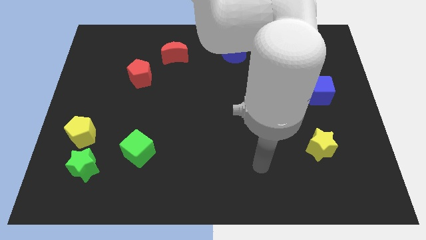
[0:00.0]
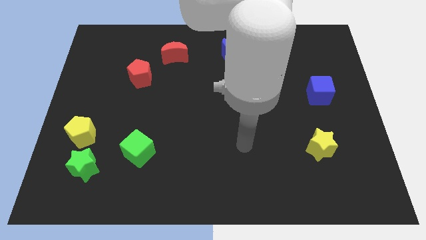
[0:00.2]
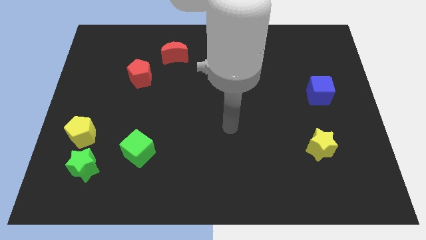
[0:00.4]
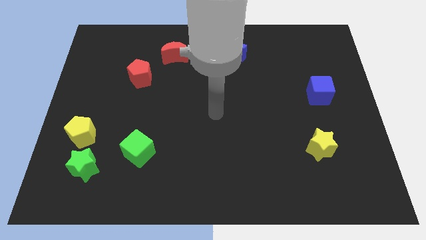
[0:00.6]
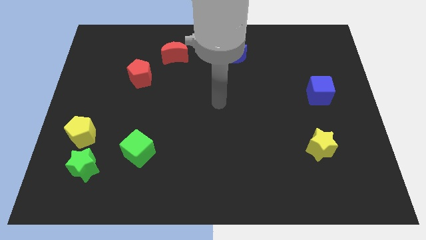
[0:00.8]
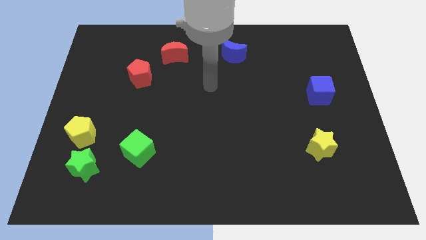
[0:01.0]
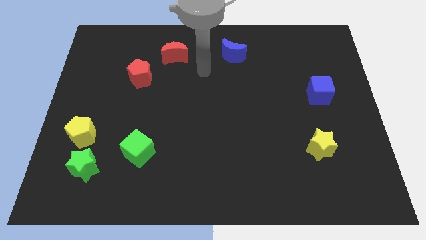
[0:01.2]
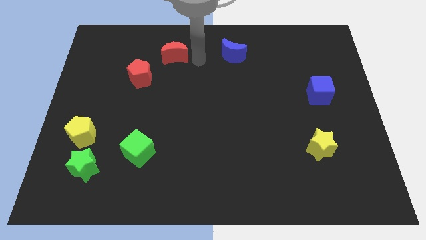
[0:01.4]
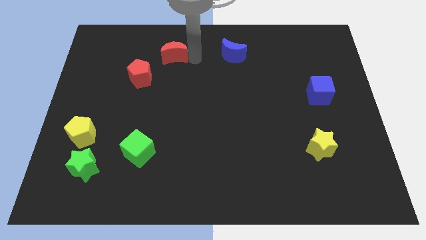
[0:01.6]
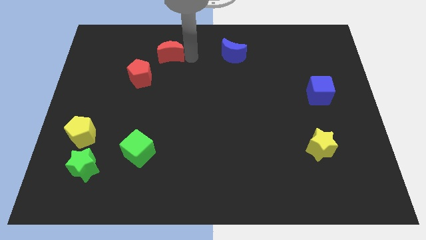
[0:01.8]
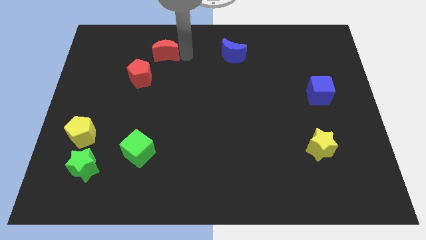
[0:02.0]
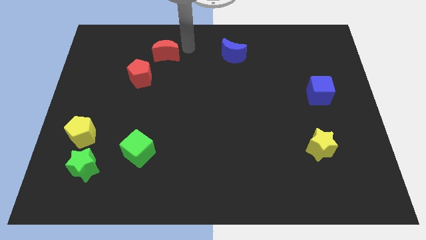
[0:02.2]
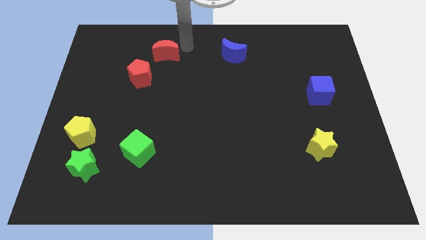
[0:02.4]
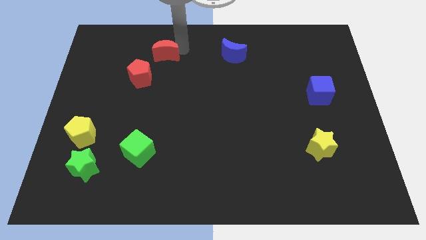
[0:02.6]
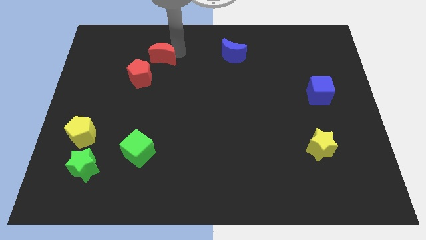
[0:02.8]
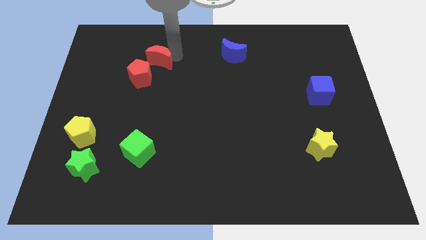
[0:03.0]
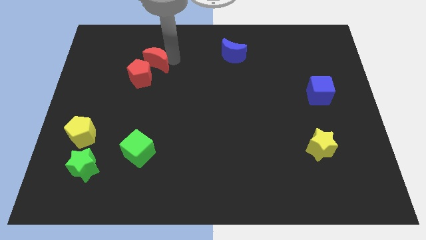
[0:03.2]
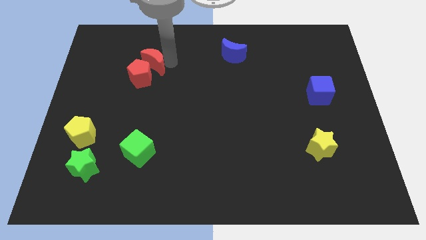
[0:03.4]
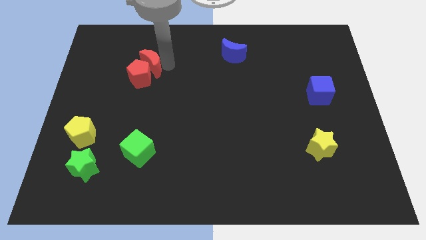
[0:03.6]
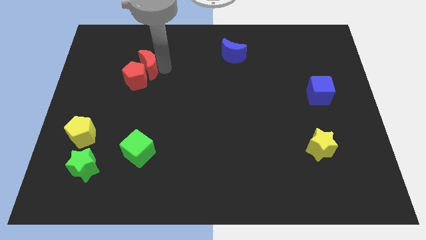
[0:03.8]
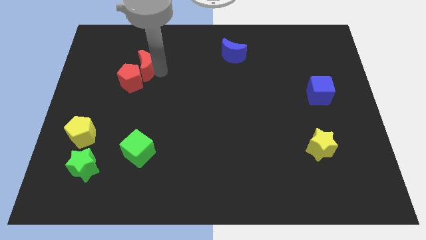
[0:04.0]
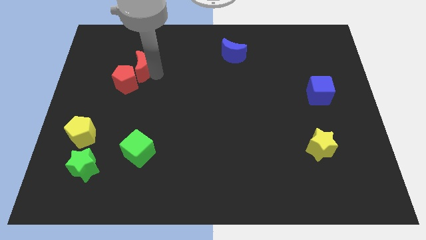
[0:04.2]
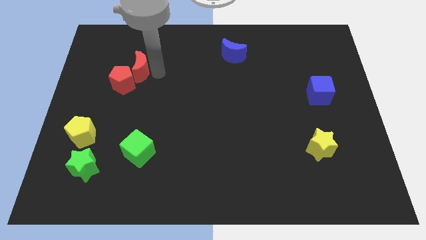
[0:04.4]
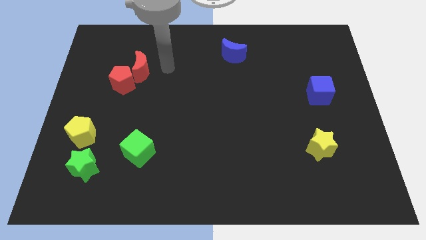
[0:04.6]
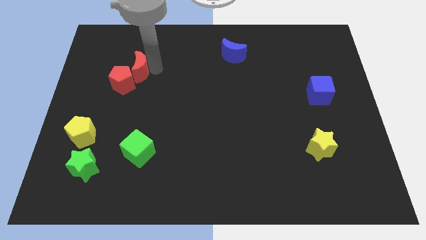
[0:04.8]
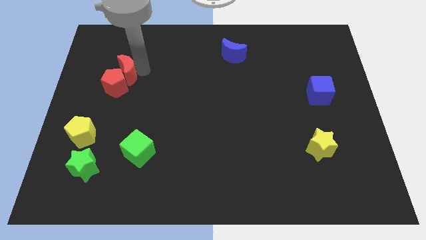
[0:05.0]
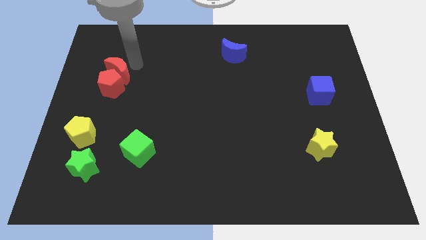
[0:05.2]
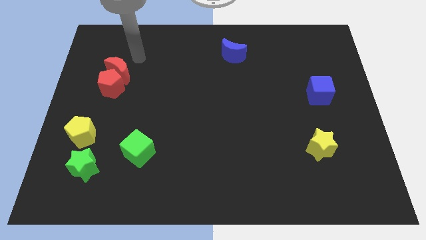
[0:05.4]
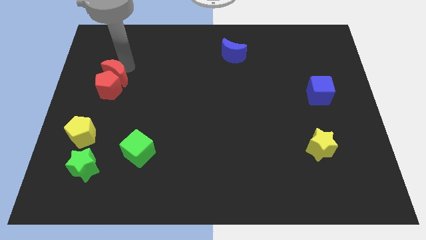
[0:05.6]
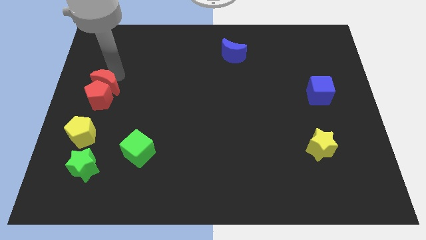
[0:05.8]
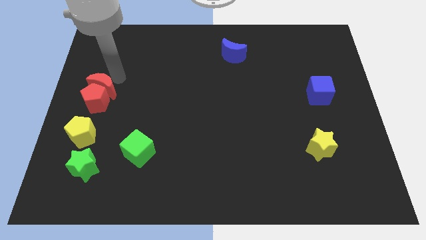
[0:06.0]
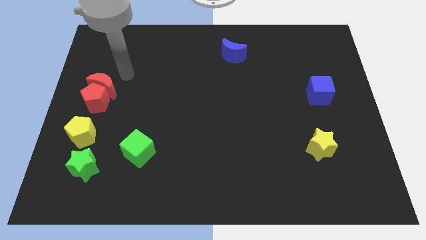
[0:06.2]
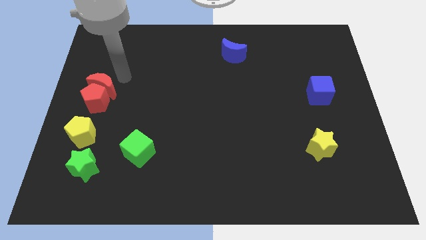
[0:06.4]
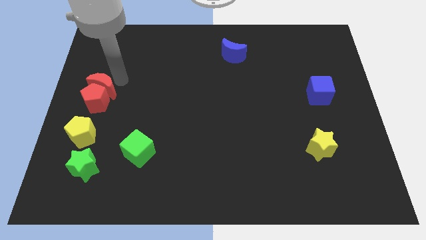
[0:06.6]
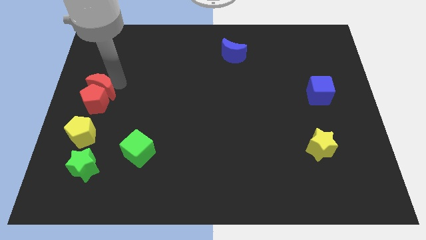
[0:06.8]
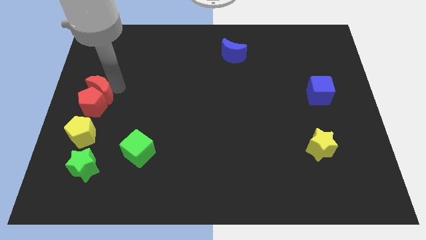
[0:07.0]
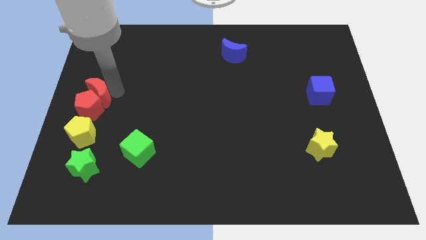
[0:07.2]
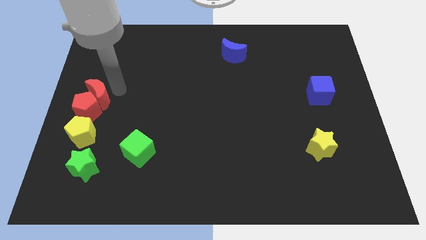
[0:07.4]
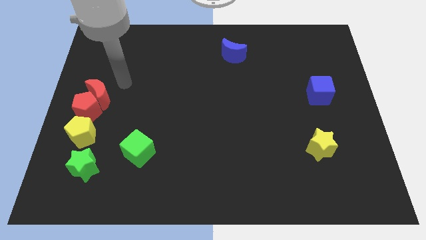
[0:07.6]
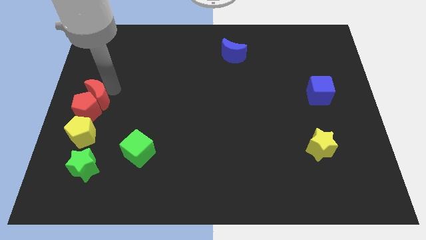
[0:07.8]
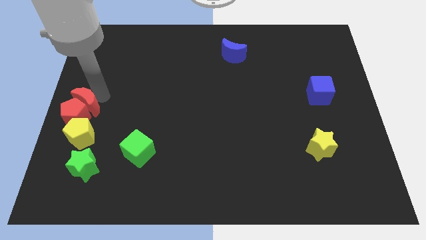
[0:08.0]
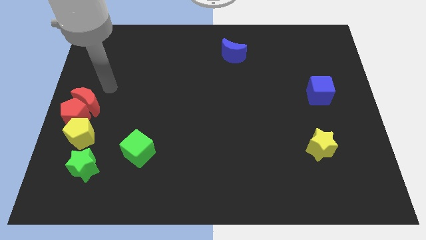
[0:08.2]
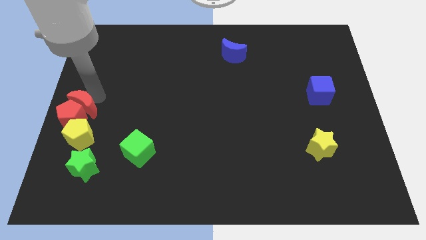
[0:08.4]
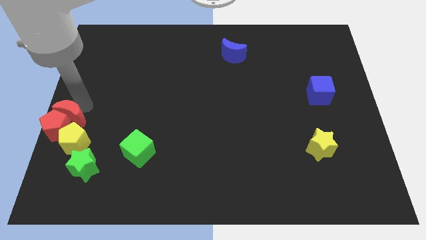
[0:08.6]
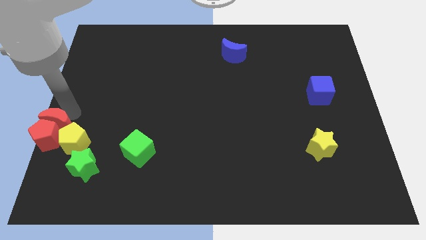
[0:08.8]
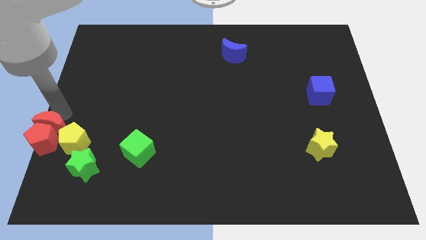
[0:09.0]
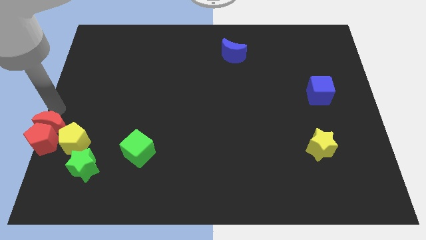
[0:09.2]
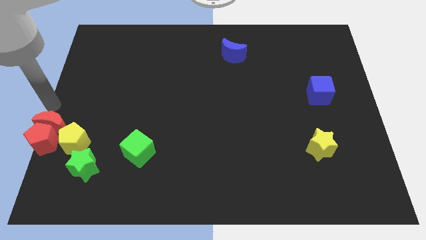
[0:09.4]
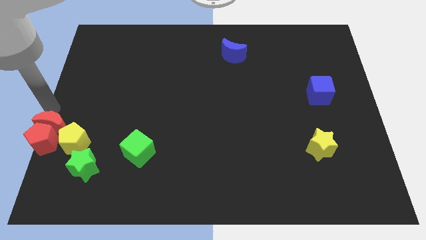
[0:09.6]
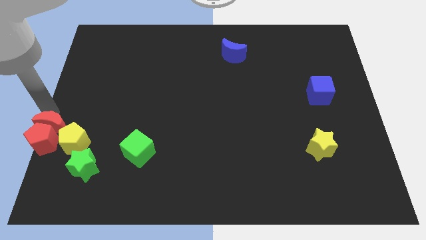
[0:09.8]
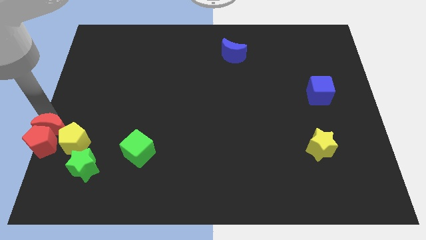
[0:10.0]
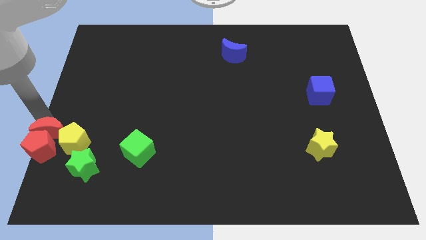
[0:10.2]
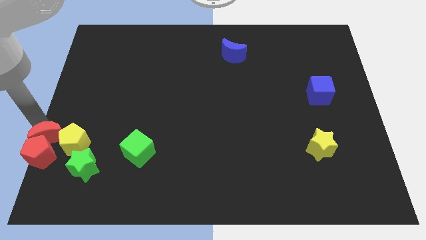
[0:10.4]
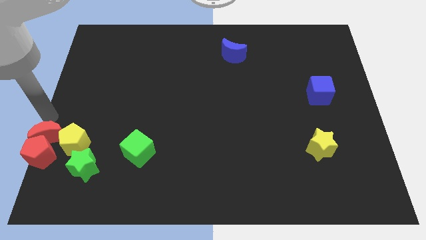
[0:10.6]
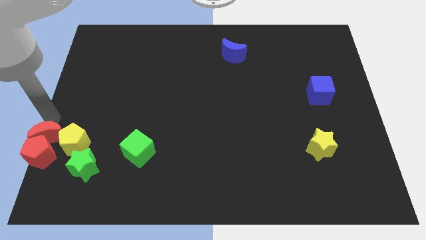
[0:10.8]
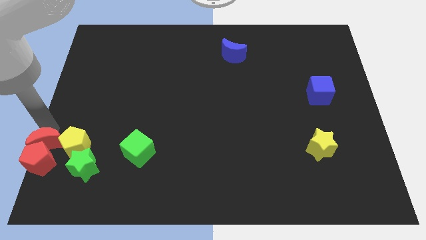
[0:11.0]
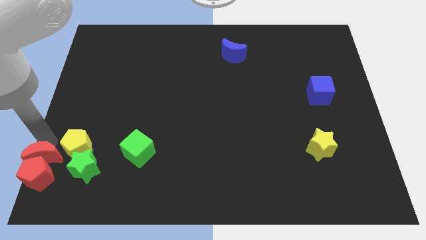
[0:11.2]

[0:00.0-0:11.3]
slide the red moon to the lower left corner

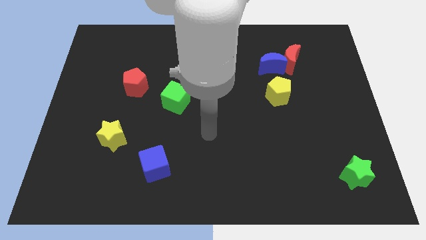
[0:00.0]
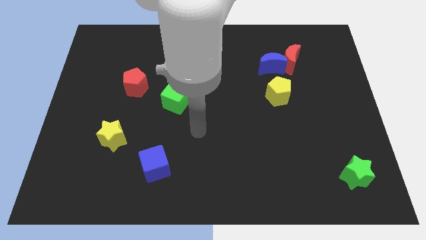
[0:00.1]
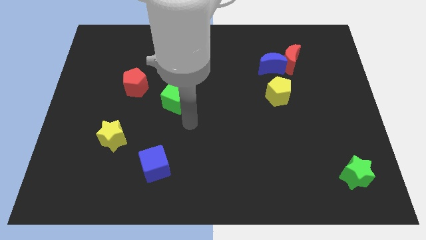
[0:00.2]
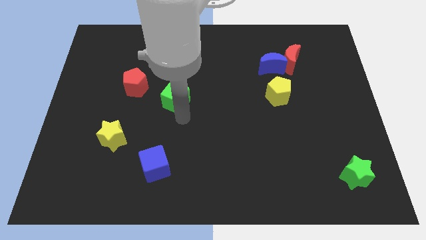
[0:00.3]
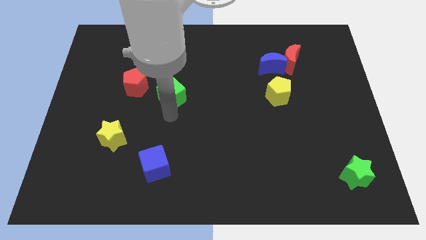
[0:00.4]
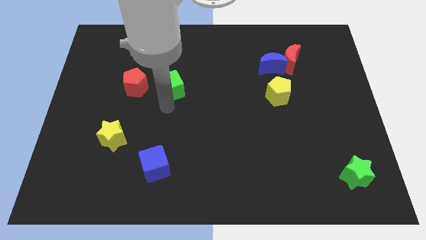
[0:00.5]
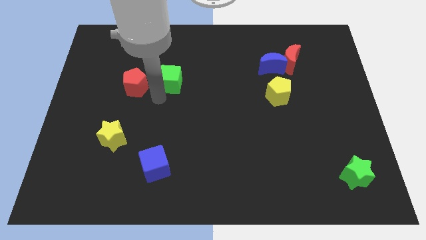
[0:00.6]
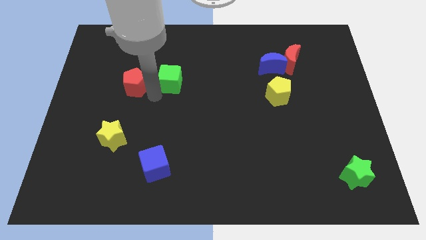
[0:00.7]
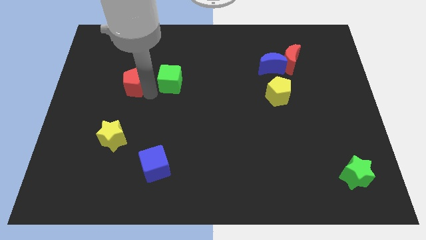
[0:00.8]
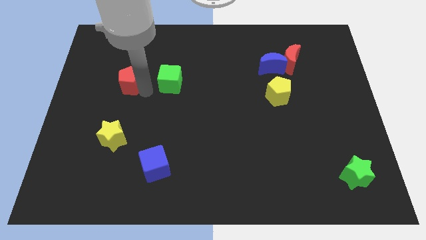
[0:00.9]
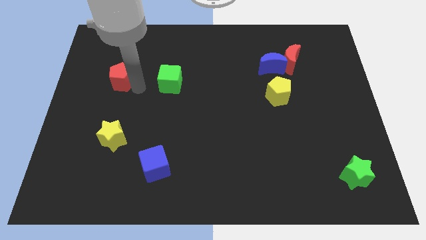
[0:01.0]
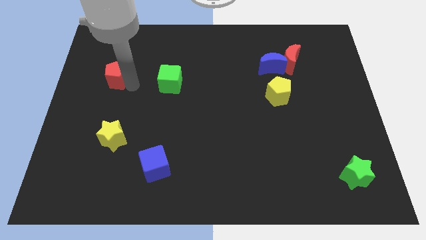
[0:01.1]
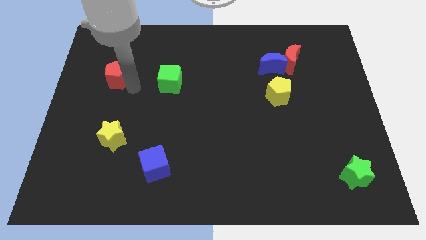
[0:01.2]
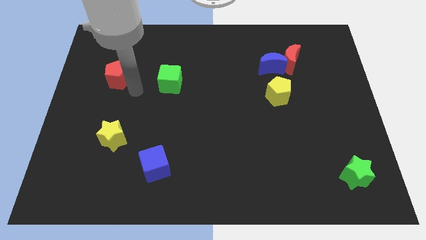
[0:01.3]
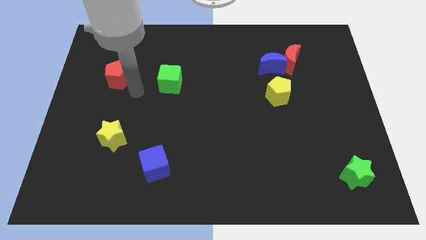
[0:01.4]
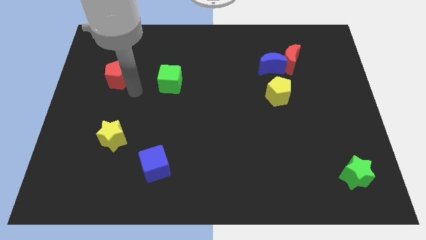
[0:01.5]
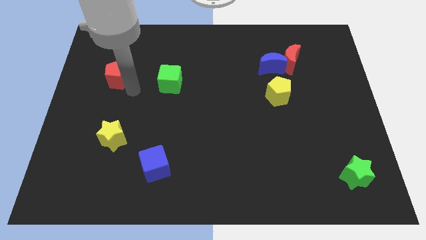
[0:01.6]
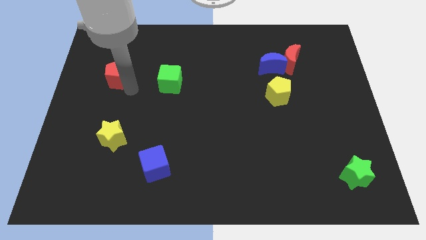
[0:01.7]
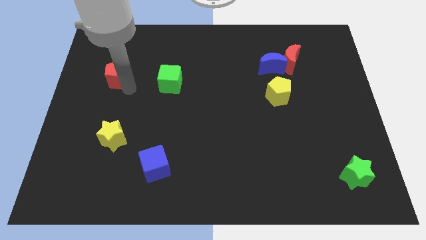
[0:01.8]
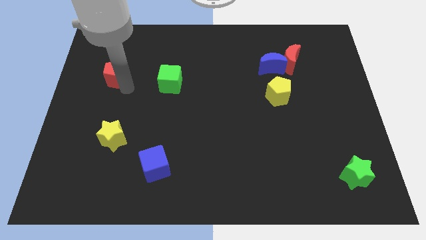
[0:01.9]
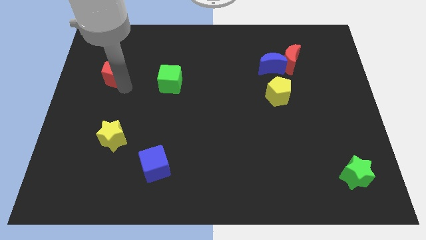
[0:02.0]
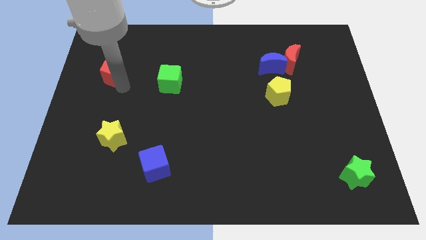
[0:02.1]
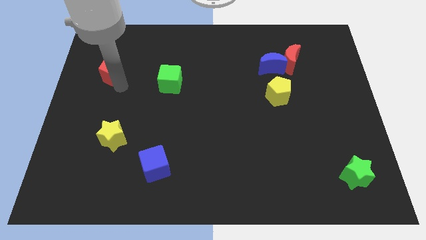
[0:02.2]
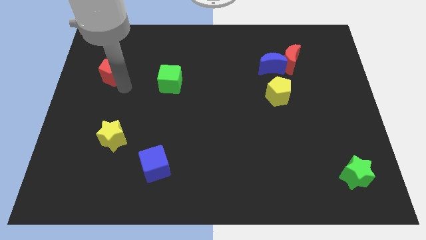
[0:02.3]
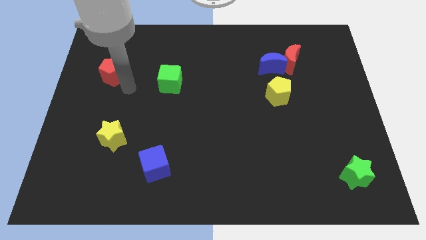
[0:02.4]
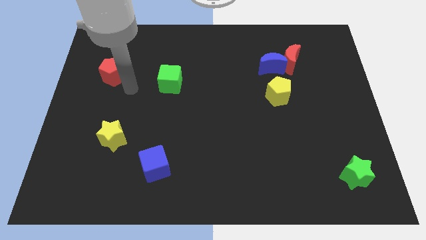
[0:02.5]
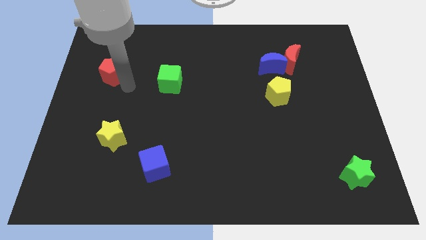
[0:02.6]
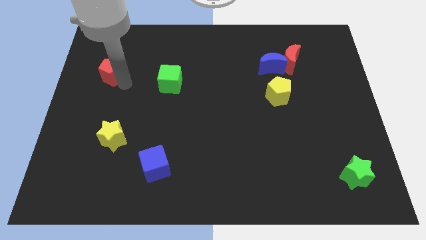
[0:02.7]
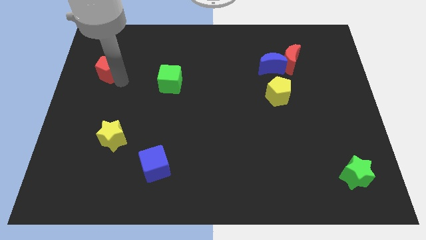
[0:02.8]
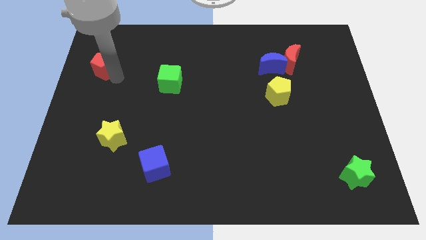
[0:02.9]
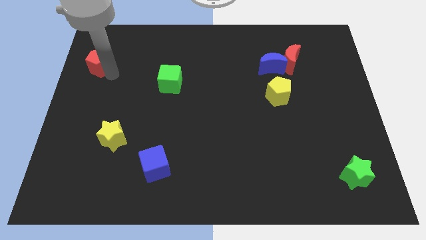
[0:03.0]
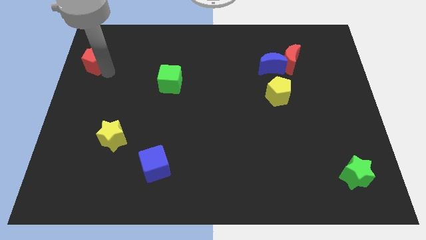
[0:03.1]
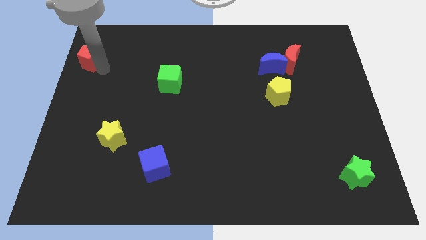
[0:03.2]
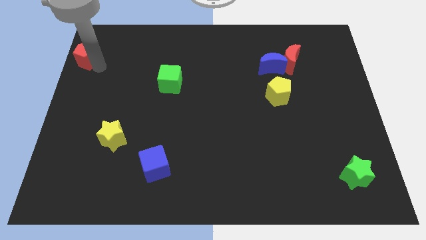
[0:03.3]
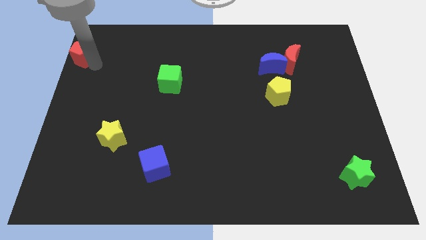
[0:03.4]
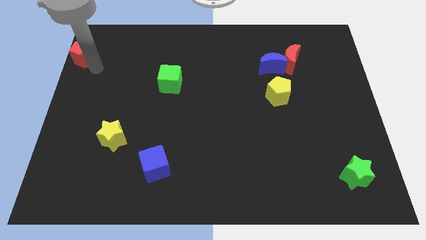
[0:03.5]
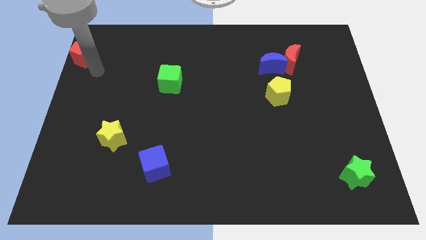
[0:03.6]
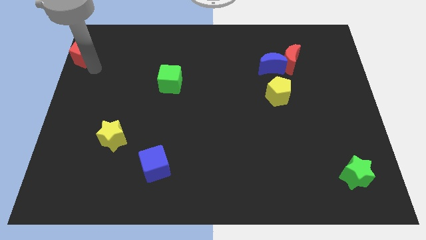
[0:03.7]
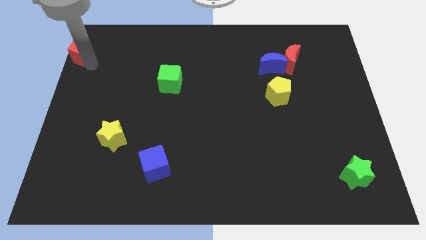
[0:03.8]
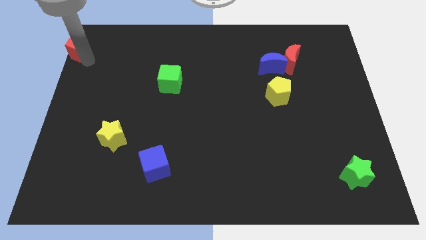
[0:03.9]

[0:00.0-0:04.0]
put the red pentagon to the top left of the board
